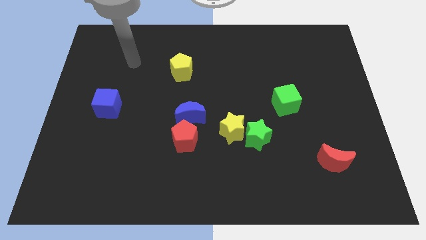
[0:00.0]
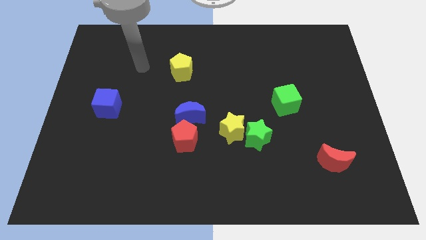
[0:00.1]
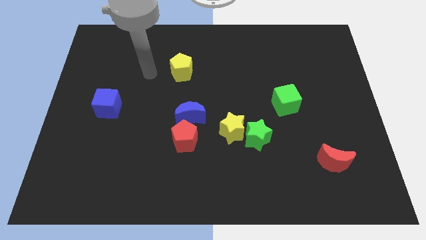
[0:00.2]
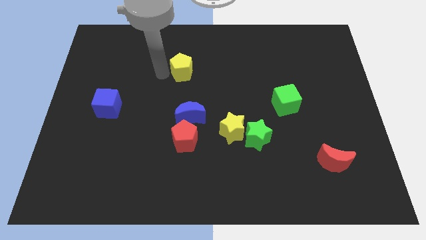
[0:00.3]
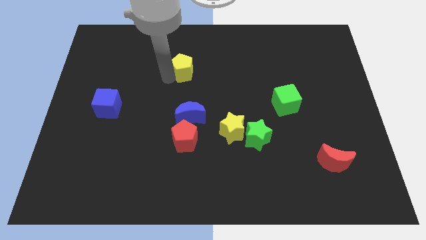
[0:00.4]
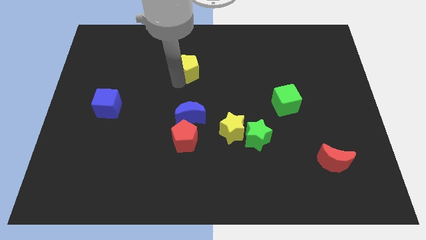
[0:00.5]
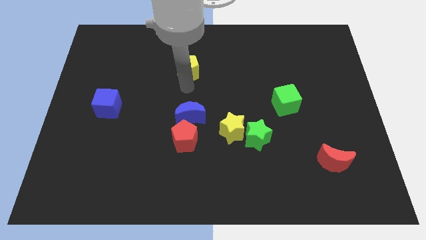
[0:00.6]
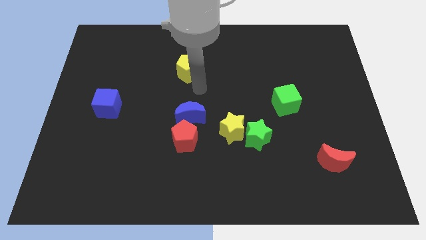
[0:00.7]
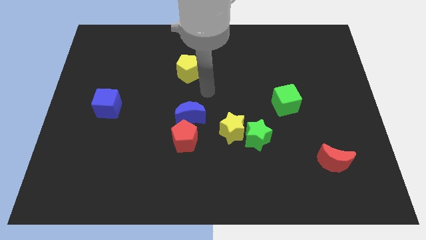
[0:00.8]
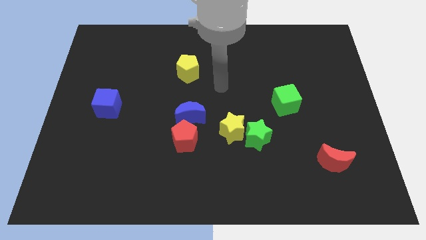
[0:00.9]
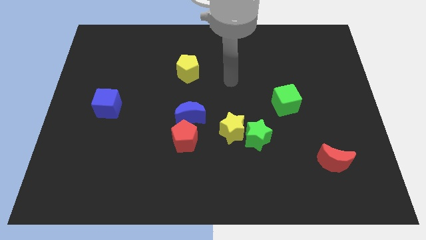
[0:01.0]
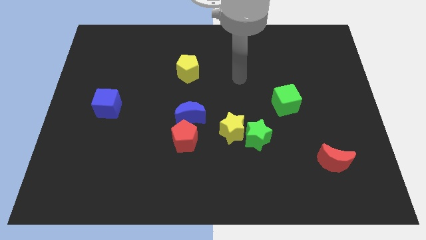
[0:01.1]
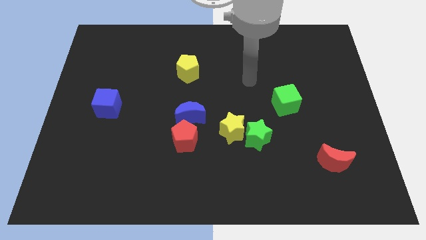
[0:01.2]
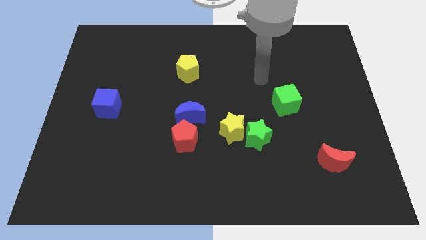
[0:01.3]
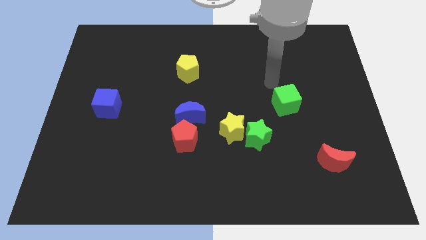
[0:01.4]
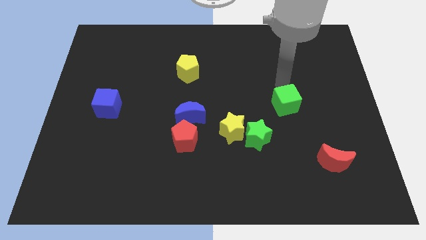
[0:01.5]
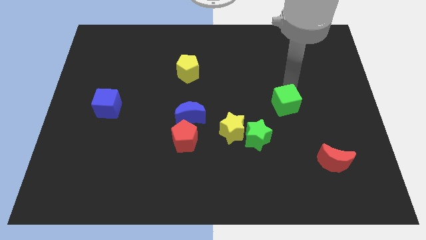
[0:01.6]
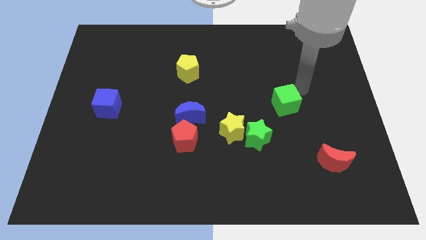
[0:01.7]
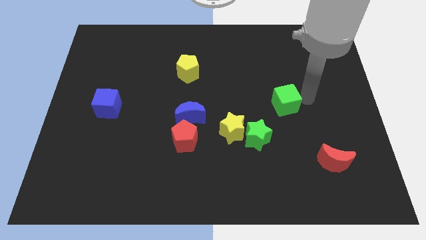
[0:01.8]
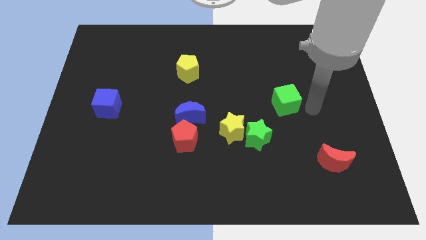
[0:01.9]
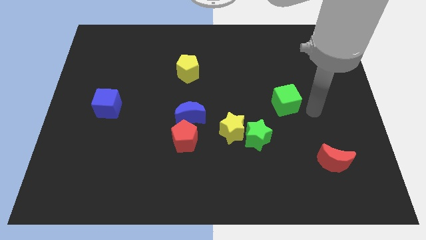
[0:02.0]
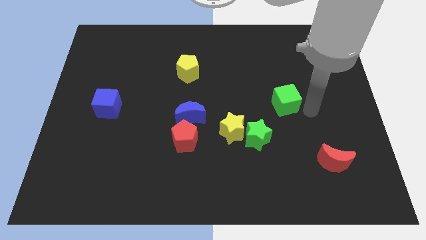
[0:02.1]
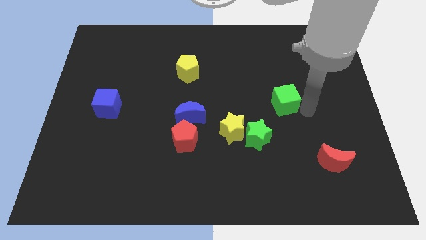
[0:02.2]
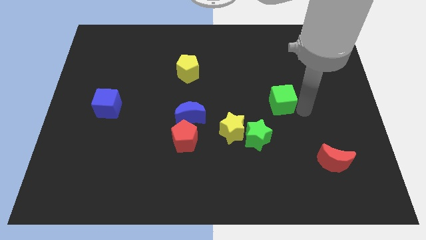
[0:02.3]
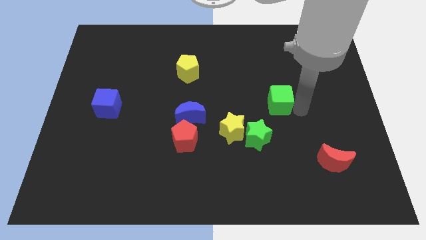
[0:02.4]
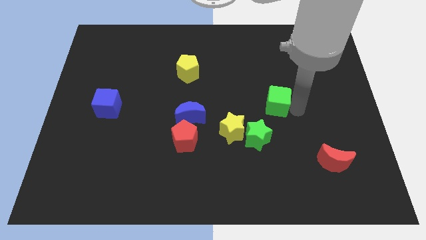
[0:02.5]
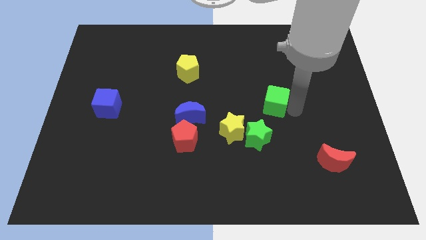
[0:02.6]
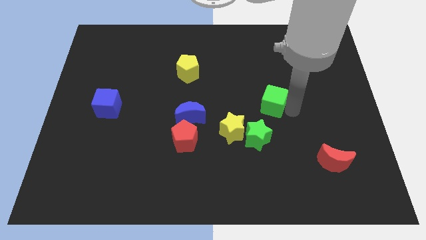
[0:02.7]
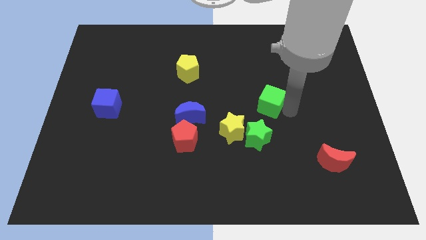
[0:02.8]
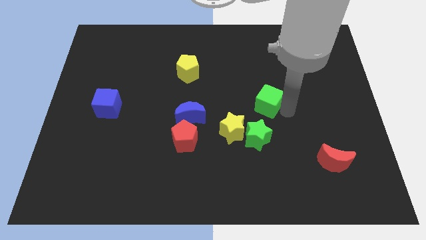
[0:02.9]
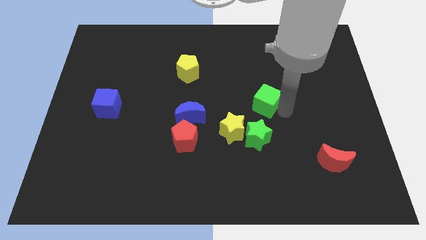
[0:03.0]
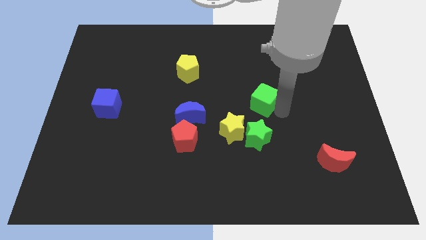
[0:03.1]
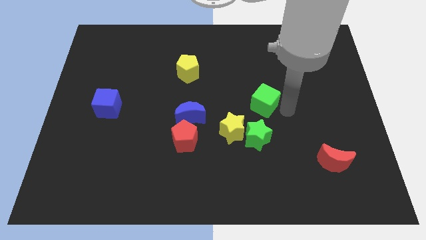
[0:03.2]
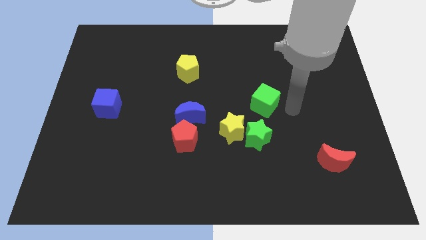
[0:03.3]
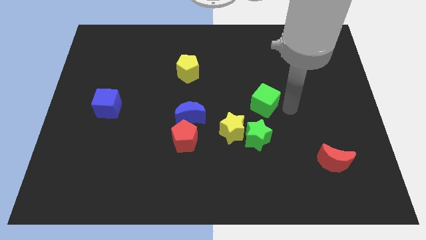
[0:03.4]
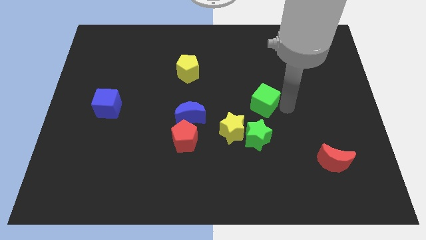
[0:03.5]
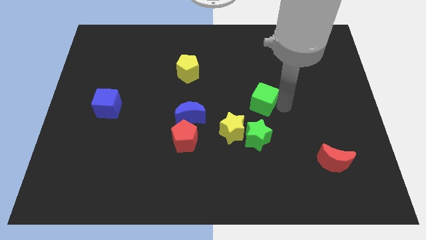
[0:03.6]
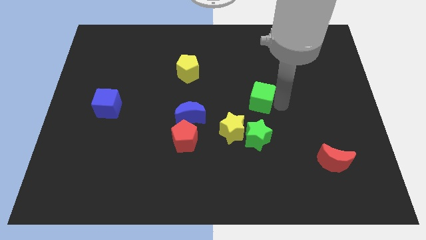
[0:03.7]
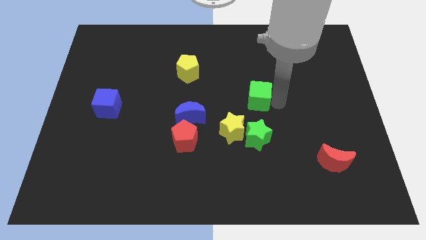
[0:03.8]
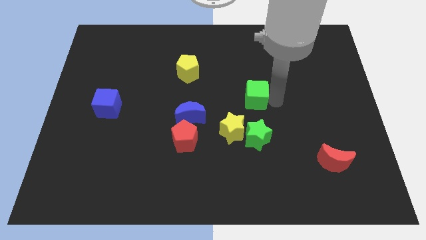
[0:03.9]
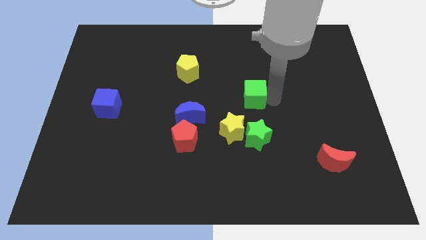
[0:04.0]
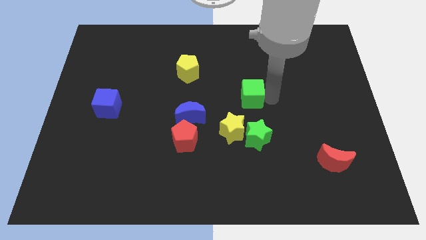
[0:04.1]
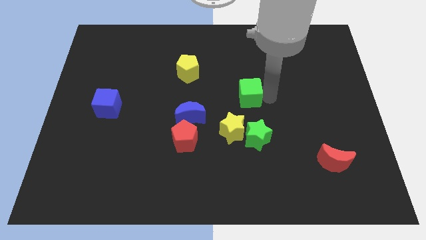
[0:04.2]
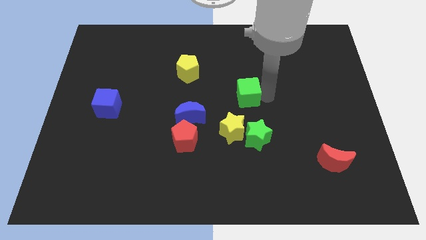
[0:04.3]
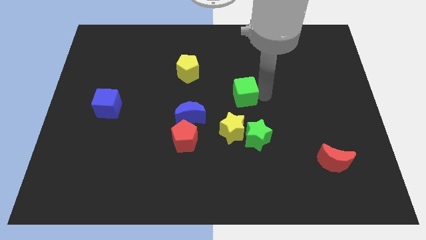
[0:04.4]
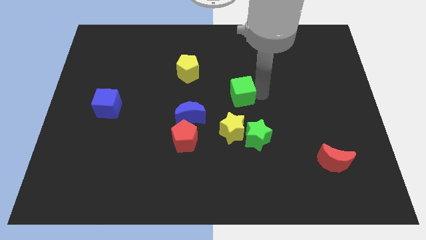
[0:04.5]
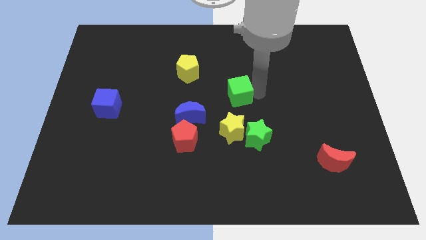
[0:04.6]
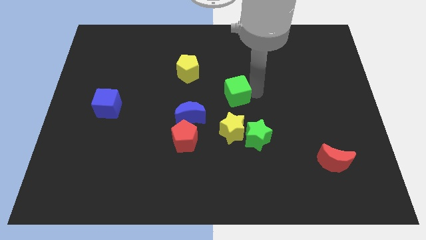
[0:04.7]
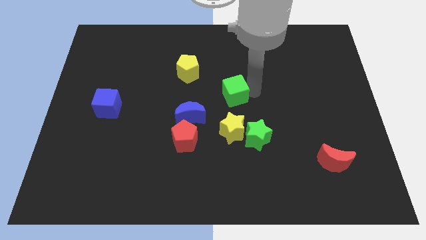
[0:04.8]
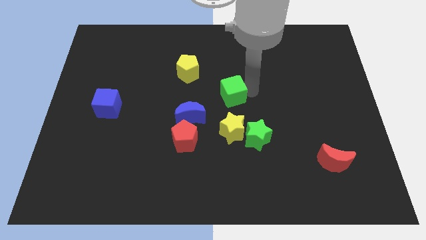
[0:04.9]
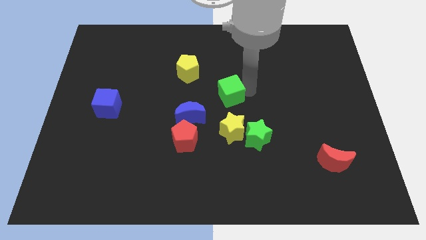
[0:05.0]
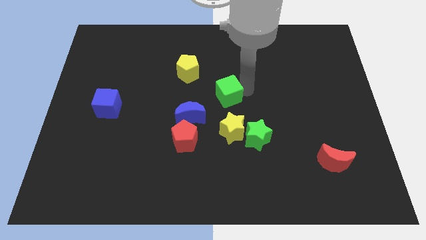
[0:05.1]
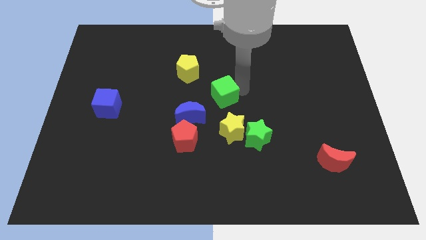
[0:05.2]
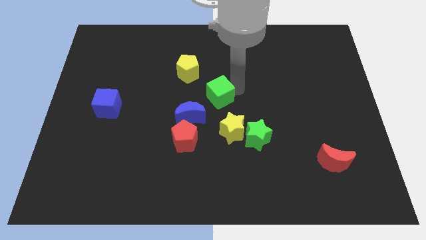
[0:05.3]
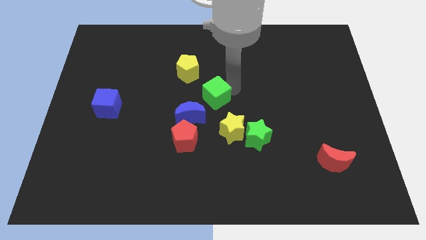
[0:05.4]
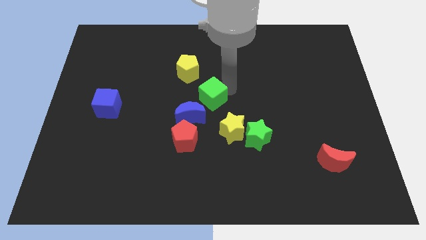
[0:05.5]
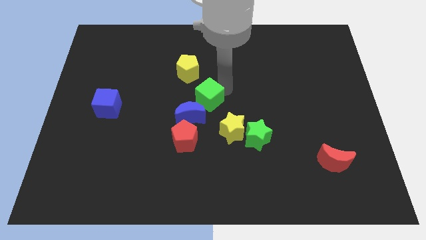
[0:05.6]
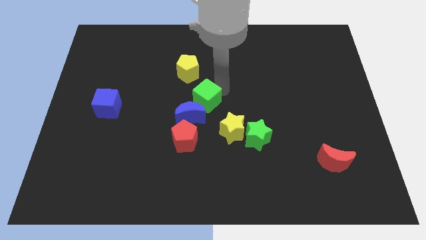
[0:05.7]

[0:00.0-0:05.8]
push the green cube next to the blue moon

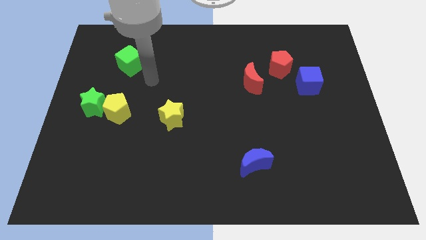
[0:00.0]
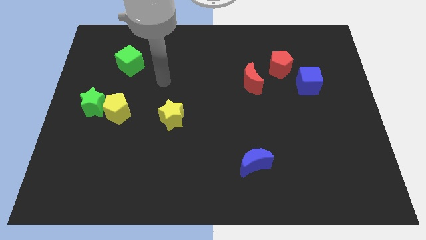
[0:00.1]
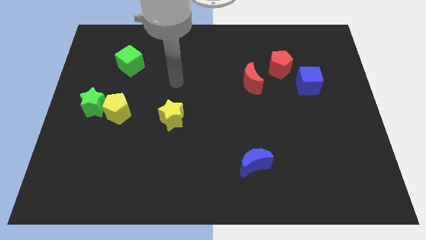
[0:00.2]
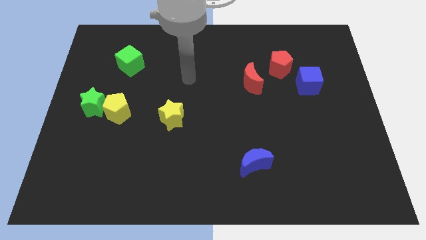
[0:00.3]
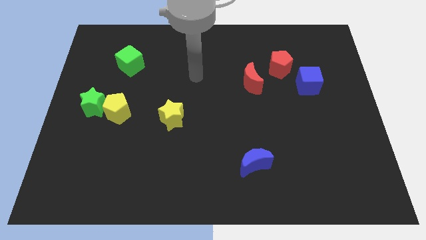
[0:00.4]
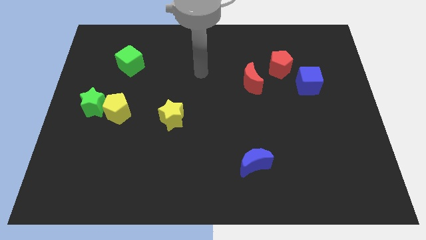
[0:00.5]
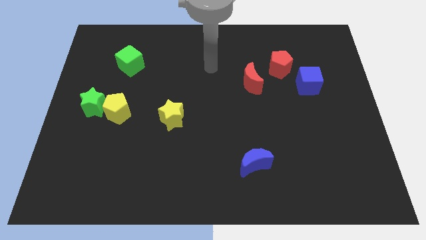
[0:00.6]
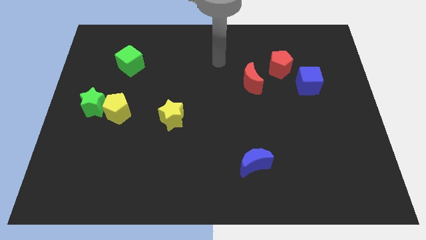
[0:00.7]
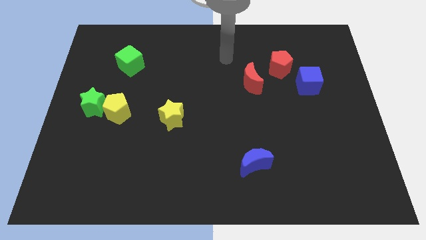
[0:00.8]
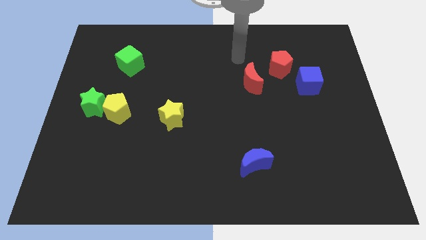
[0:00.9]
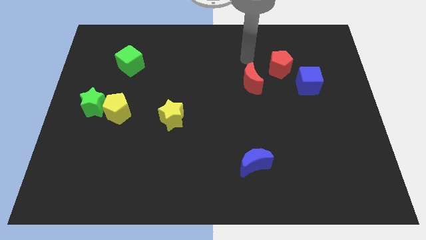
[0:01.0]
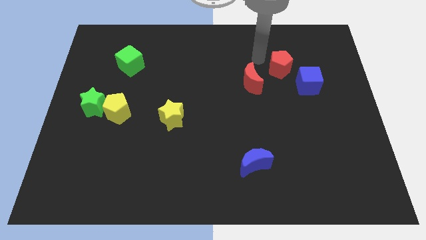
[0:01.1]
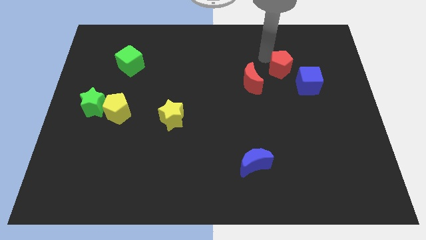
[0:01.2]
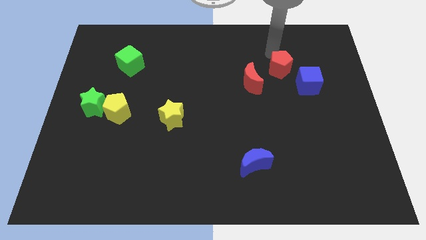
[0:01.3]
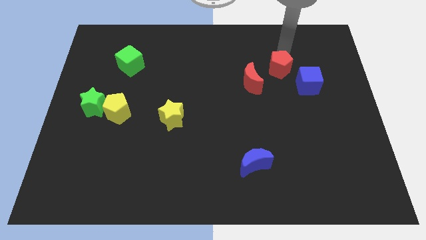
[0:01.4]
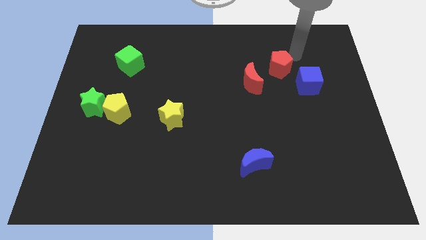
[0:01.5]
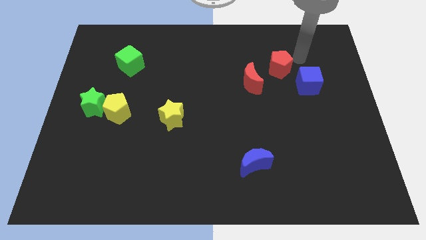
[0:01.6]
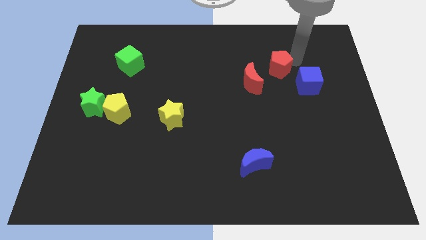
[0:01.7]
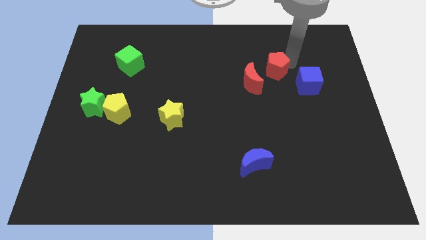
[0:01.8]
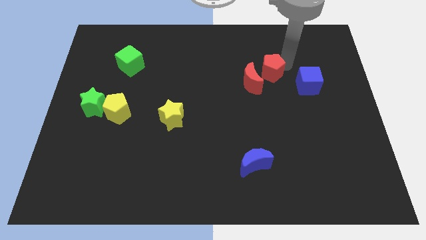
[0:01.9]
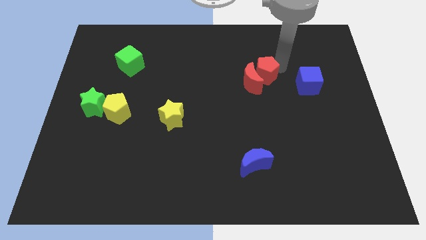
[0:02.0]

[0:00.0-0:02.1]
put the red pentagon towards the red moon
